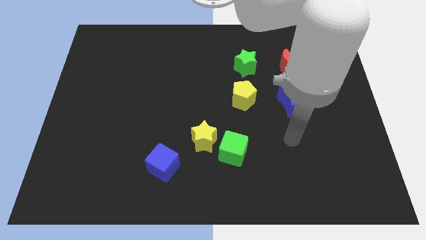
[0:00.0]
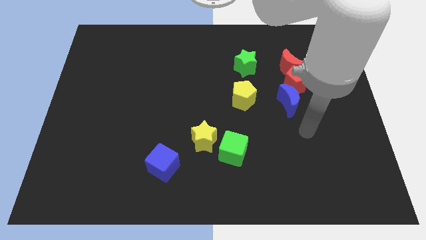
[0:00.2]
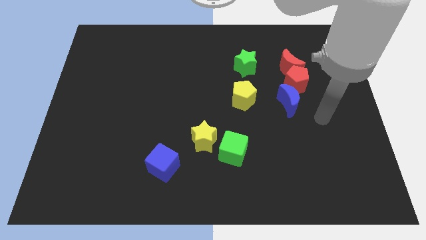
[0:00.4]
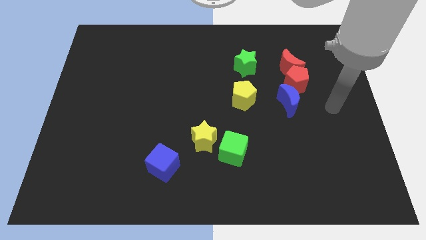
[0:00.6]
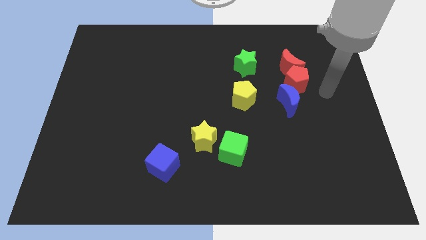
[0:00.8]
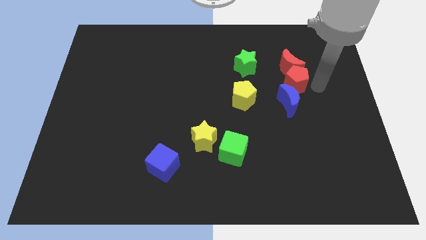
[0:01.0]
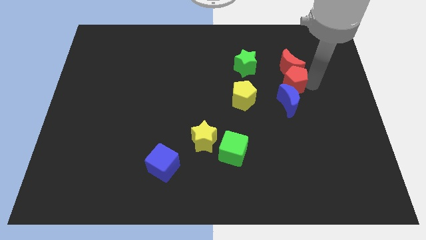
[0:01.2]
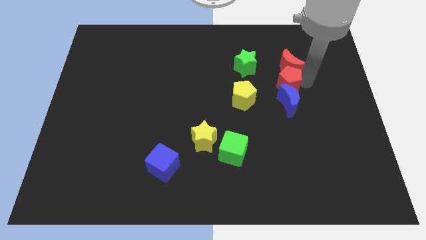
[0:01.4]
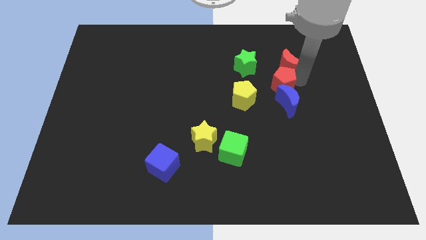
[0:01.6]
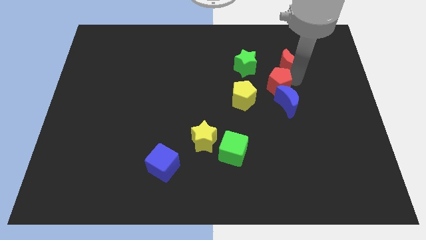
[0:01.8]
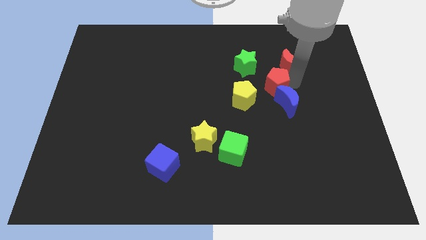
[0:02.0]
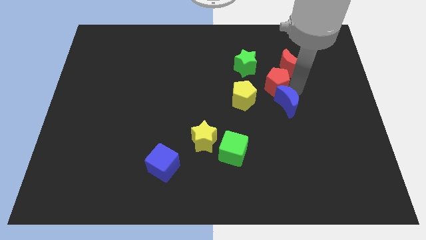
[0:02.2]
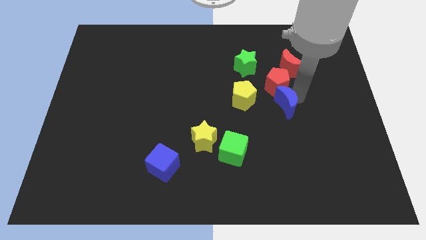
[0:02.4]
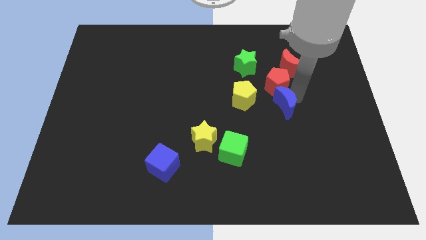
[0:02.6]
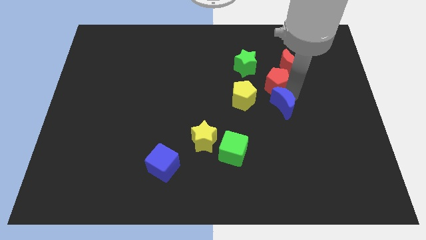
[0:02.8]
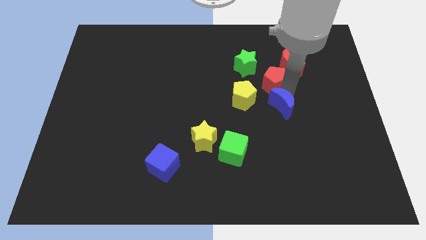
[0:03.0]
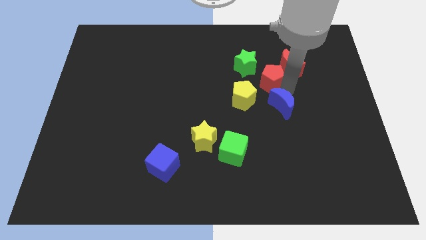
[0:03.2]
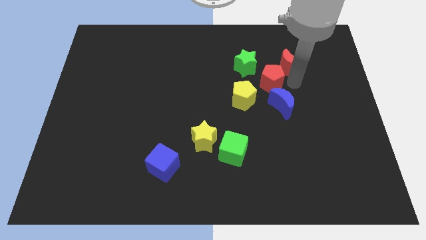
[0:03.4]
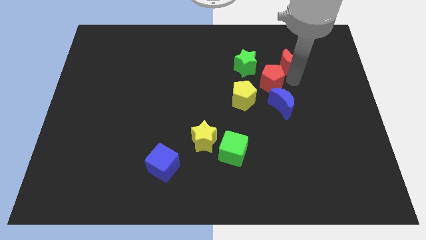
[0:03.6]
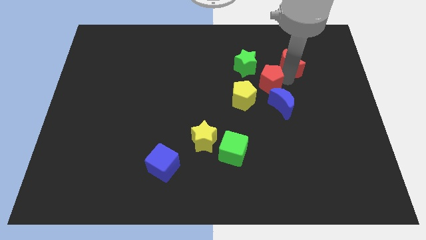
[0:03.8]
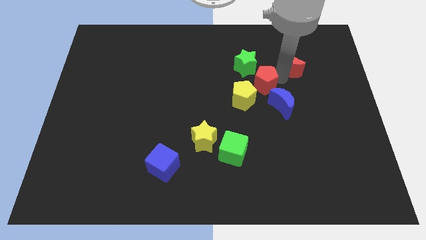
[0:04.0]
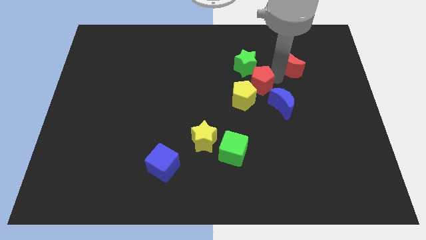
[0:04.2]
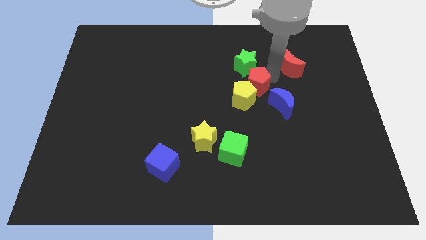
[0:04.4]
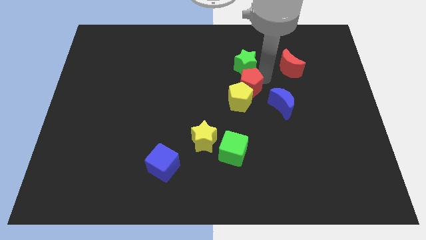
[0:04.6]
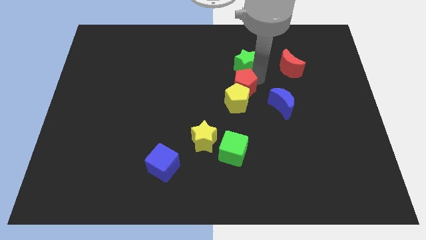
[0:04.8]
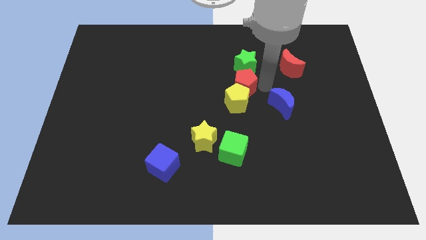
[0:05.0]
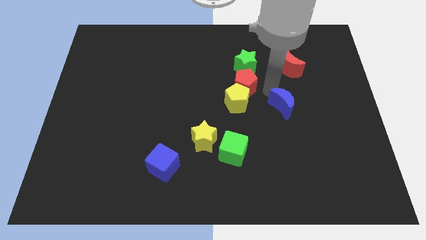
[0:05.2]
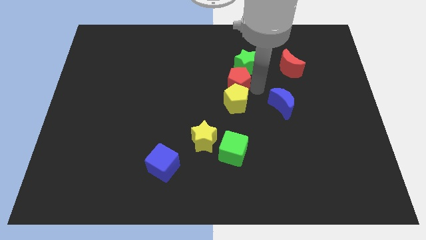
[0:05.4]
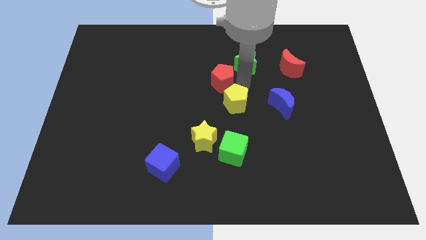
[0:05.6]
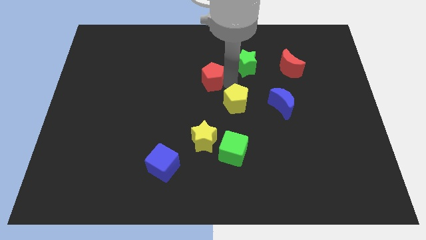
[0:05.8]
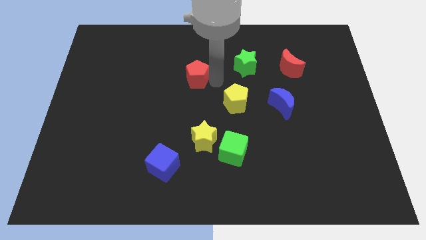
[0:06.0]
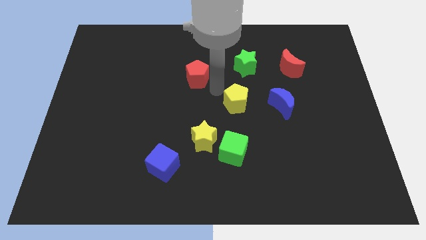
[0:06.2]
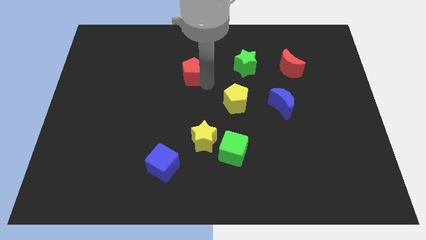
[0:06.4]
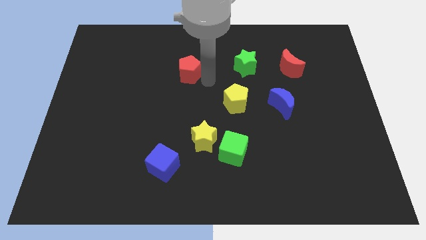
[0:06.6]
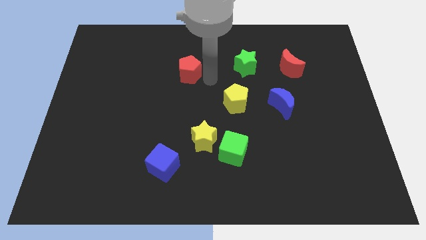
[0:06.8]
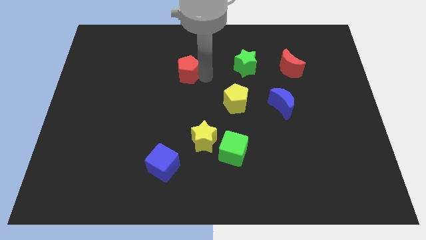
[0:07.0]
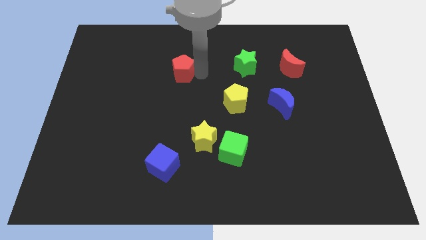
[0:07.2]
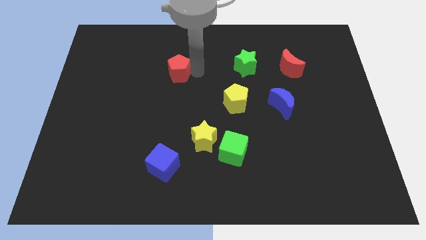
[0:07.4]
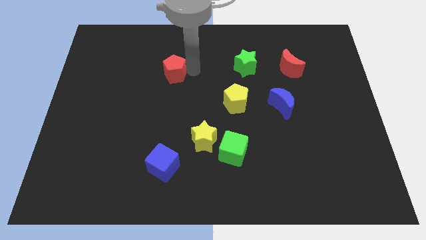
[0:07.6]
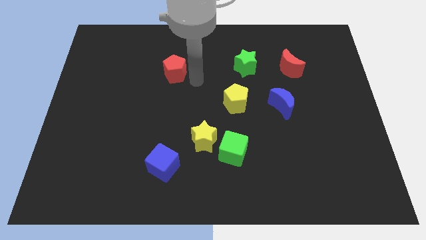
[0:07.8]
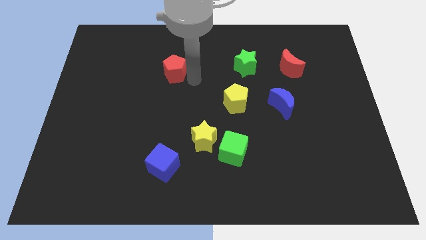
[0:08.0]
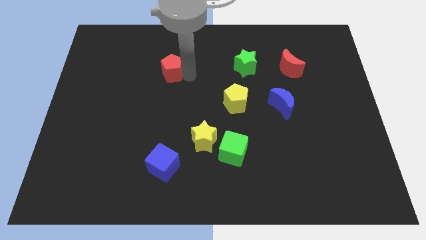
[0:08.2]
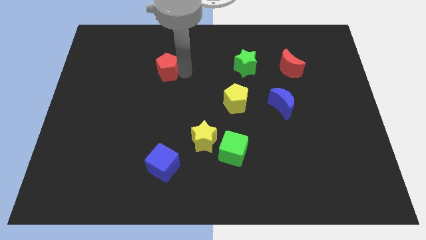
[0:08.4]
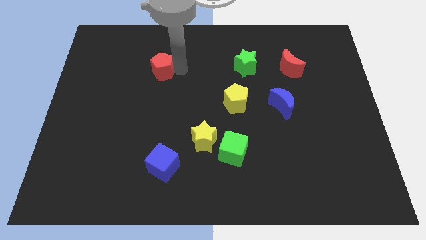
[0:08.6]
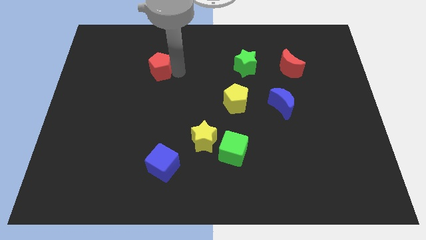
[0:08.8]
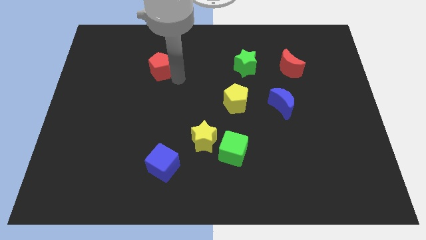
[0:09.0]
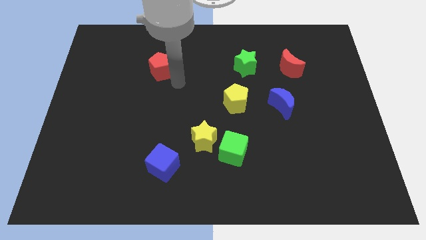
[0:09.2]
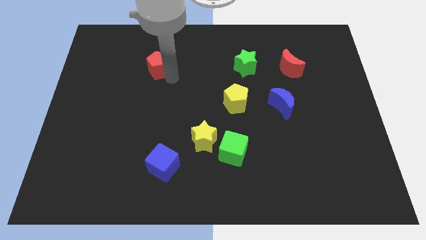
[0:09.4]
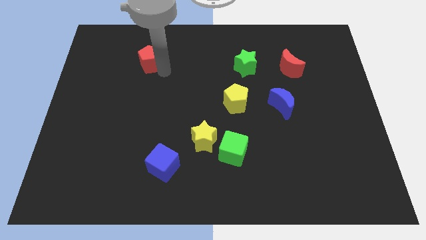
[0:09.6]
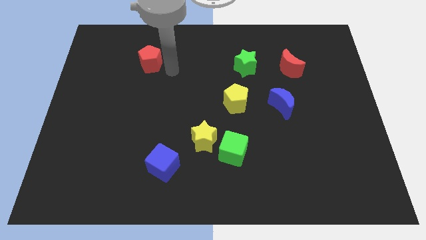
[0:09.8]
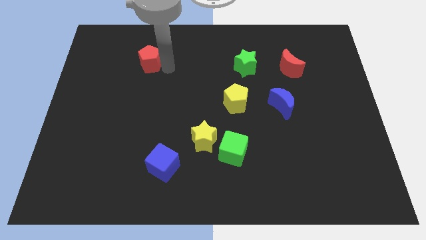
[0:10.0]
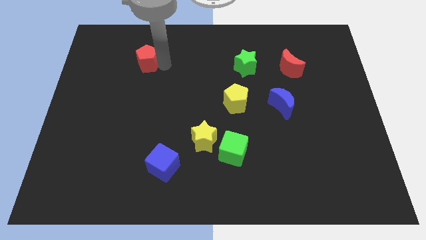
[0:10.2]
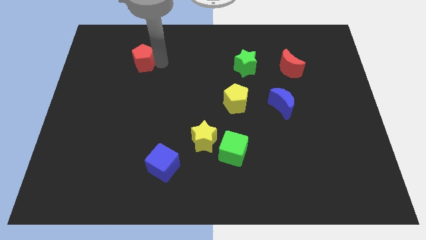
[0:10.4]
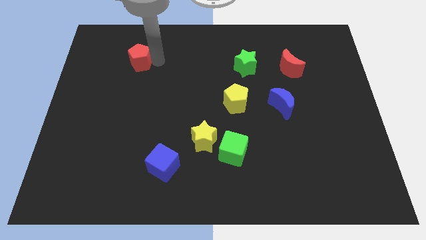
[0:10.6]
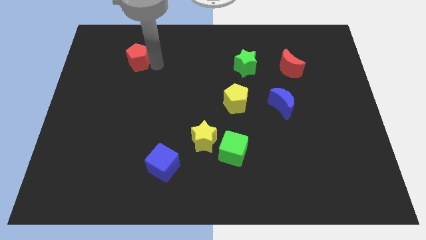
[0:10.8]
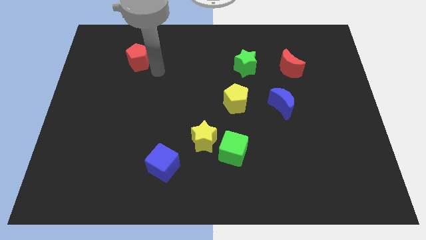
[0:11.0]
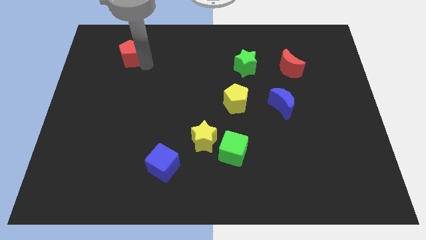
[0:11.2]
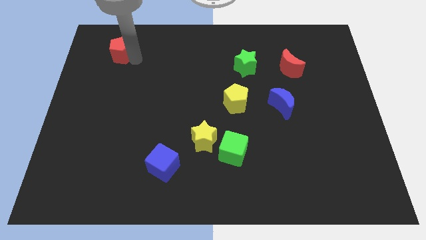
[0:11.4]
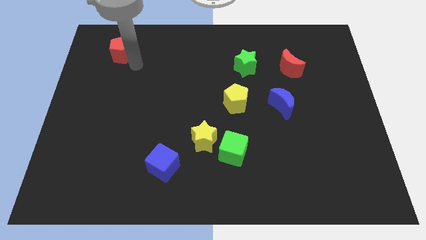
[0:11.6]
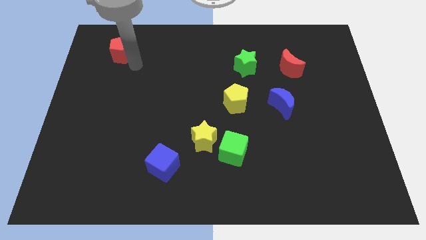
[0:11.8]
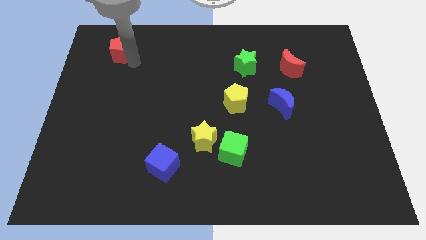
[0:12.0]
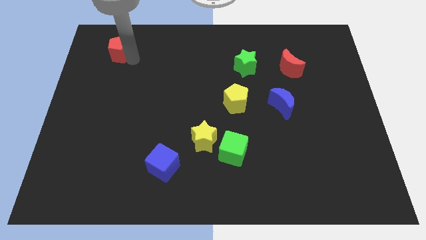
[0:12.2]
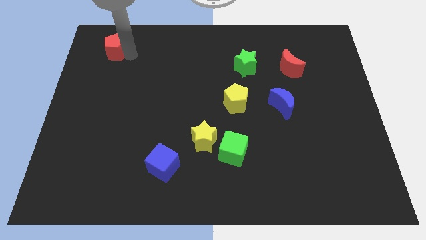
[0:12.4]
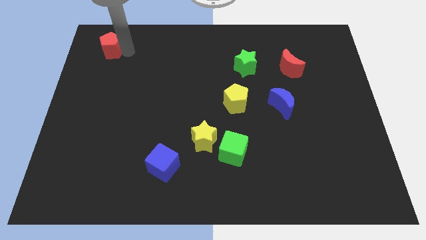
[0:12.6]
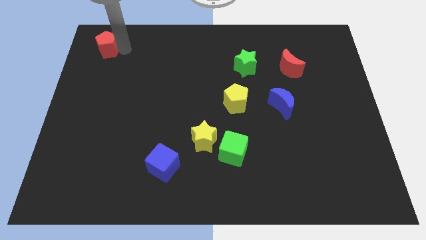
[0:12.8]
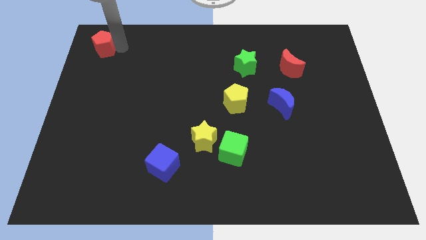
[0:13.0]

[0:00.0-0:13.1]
slide the red pentagon to the upper left corner
